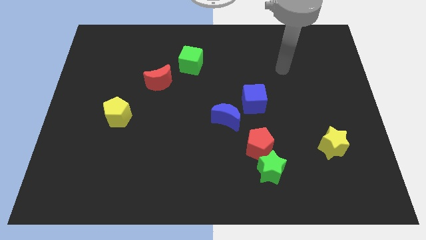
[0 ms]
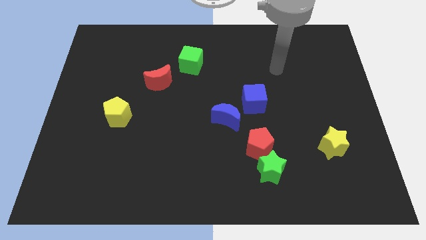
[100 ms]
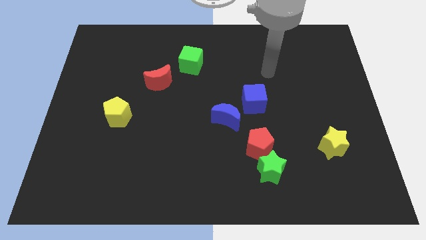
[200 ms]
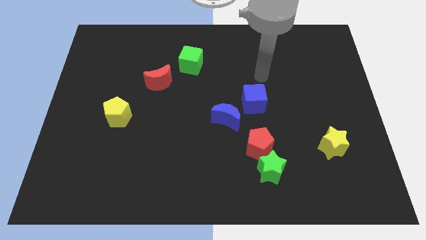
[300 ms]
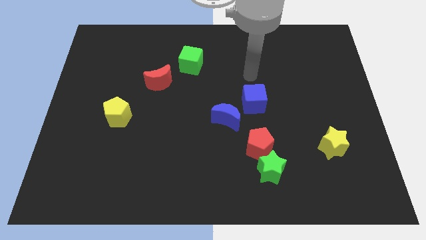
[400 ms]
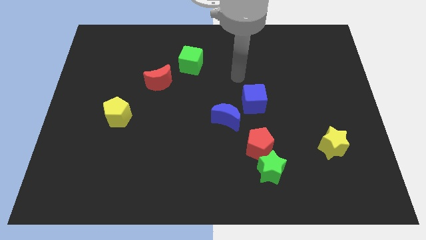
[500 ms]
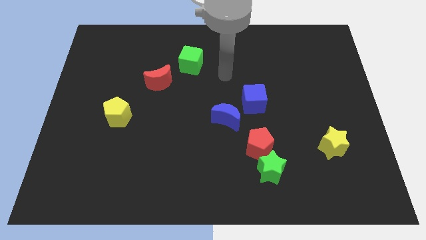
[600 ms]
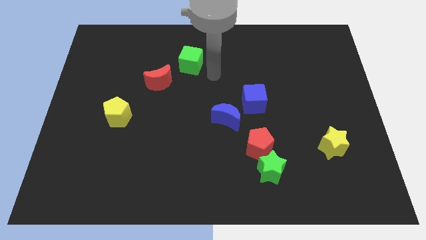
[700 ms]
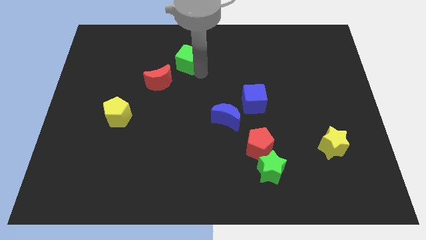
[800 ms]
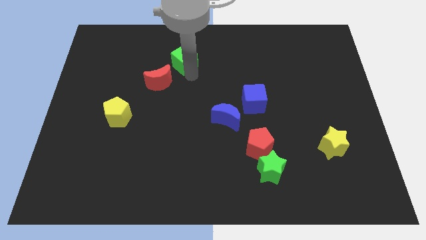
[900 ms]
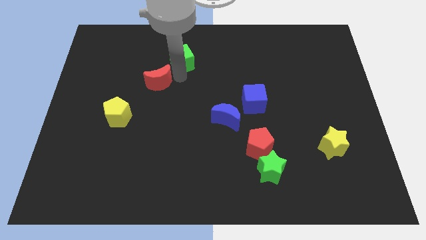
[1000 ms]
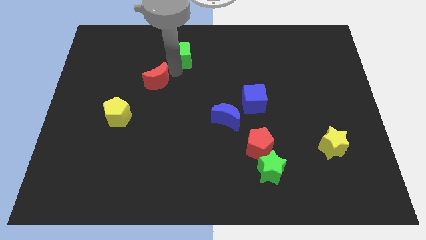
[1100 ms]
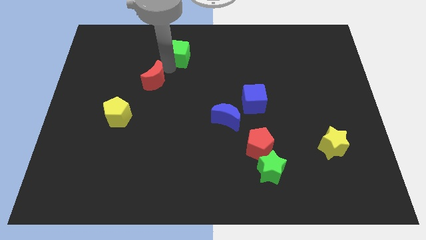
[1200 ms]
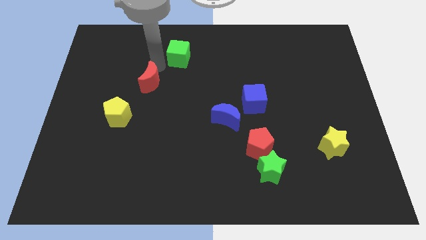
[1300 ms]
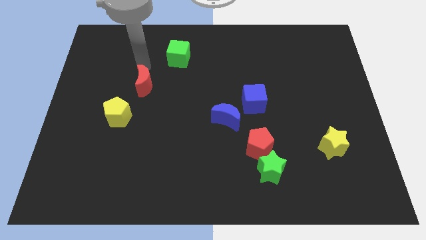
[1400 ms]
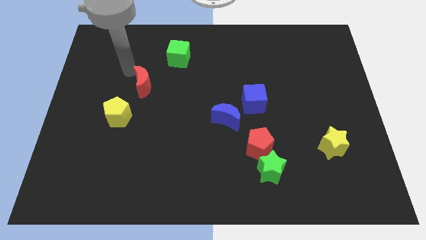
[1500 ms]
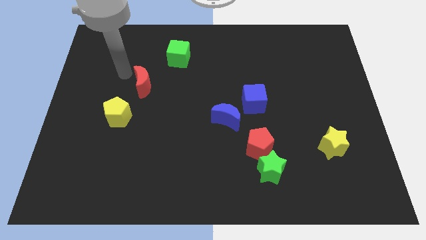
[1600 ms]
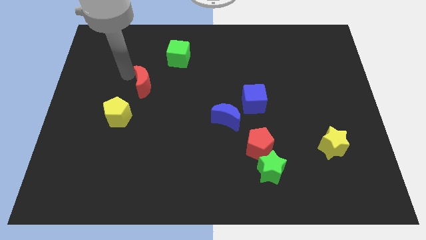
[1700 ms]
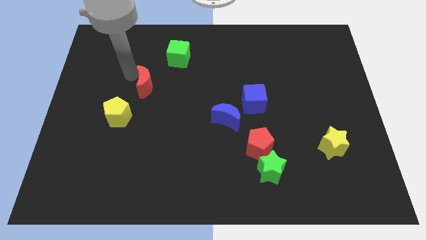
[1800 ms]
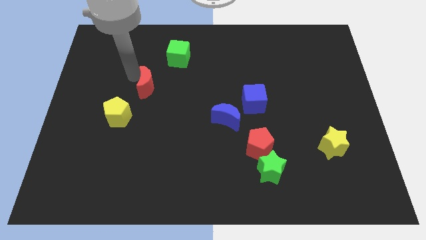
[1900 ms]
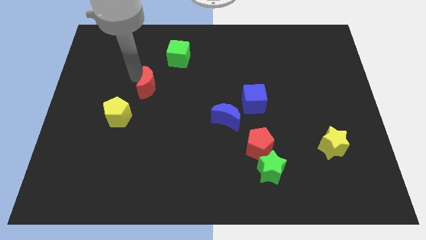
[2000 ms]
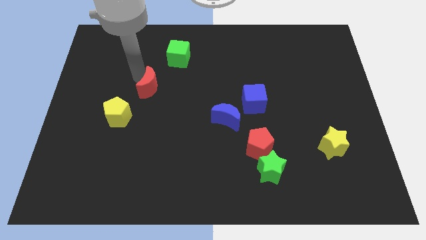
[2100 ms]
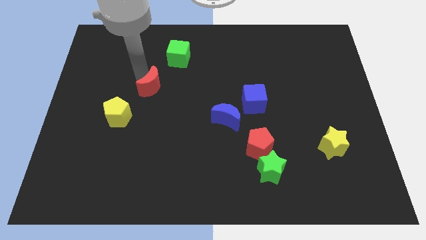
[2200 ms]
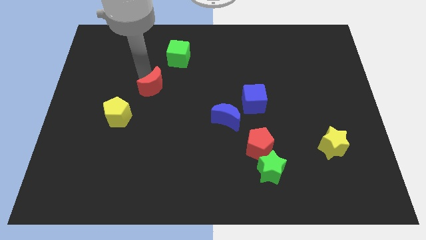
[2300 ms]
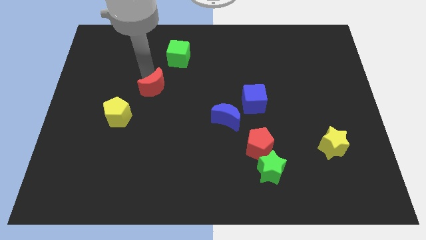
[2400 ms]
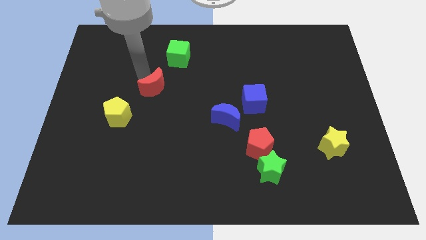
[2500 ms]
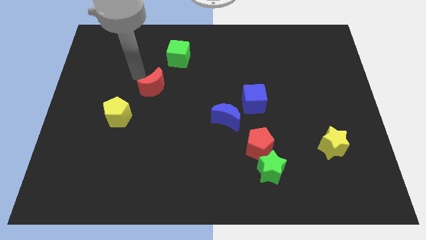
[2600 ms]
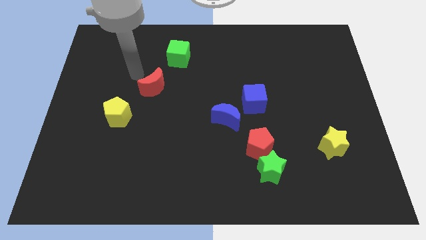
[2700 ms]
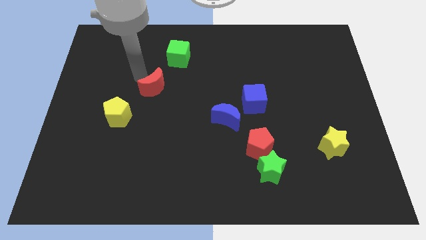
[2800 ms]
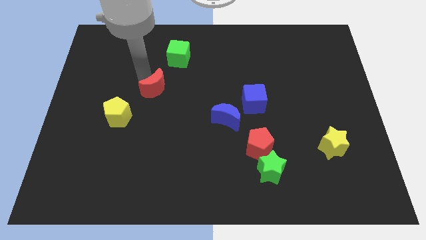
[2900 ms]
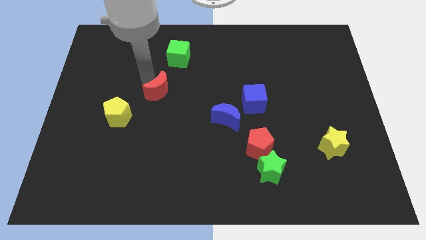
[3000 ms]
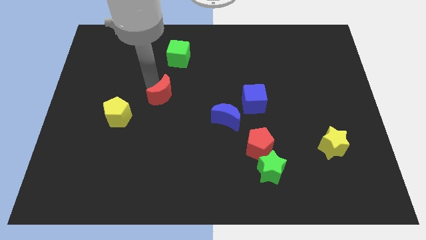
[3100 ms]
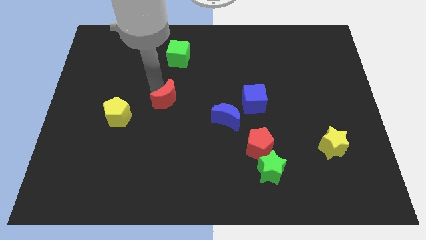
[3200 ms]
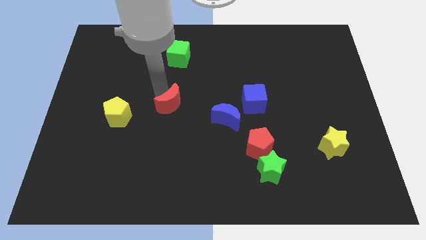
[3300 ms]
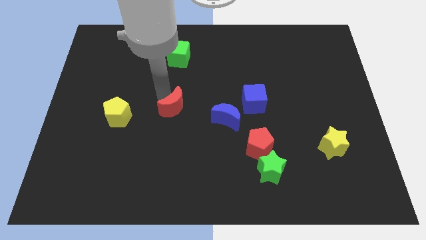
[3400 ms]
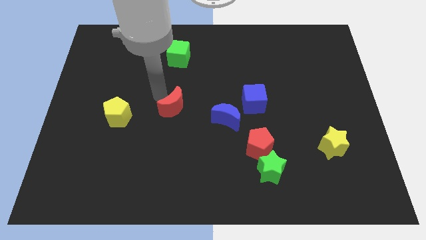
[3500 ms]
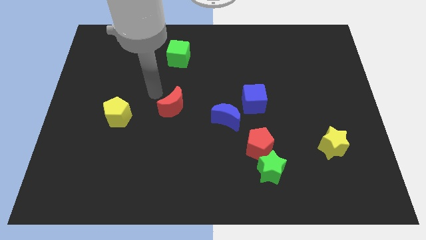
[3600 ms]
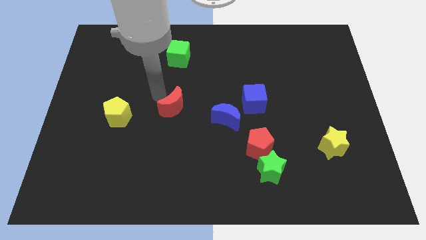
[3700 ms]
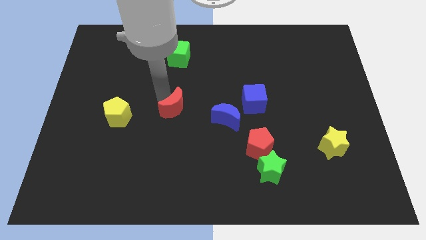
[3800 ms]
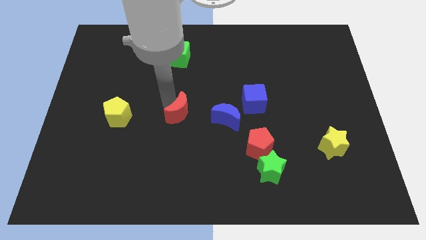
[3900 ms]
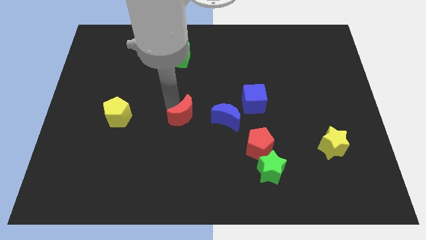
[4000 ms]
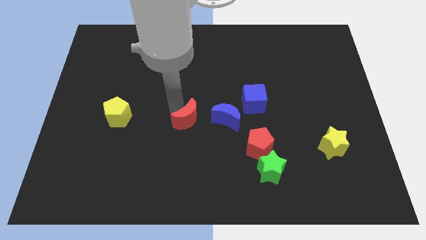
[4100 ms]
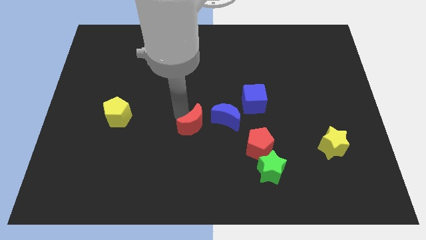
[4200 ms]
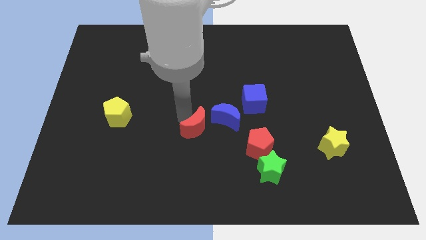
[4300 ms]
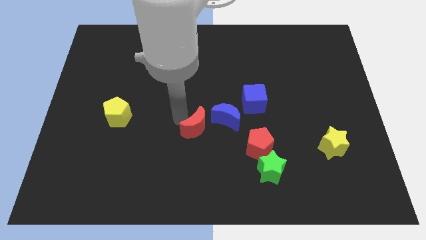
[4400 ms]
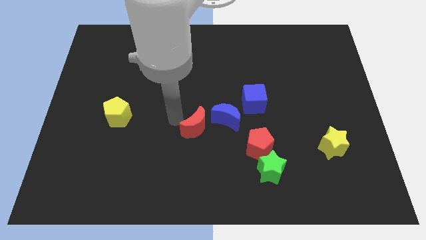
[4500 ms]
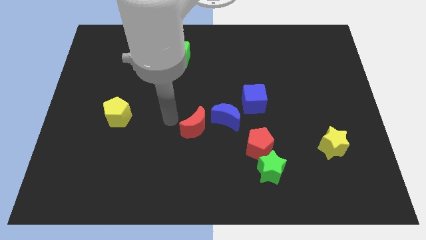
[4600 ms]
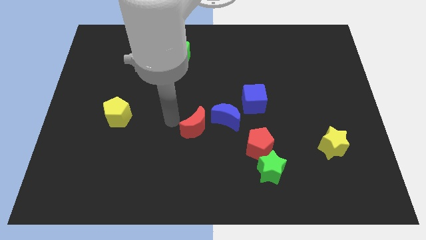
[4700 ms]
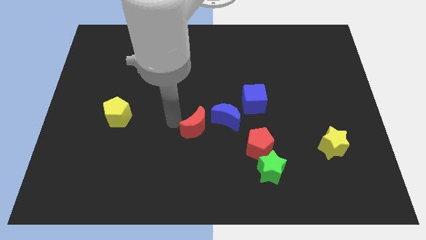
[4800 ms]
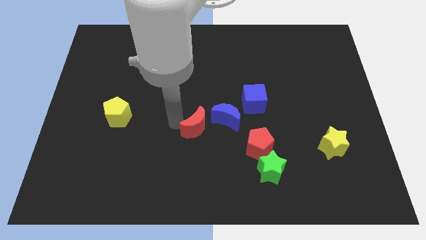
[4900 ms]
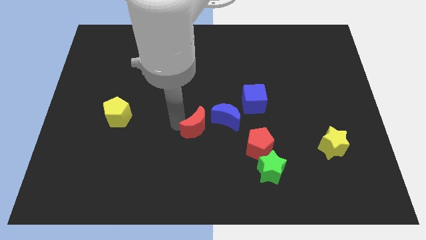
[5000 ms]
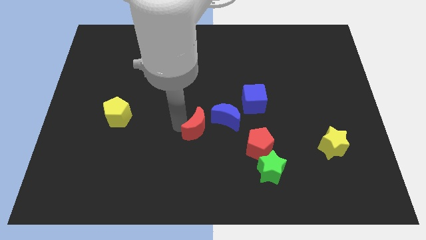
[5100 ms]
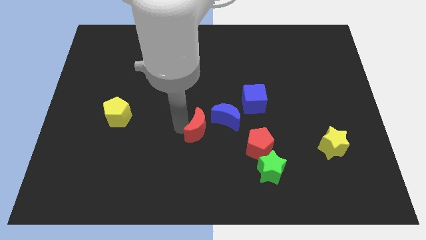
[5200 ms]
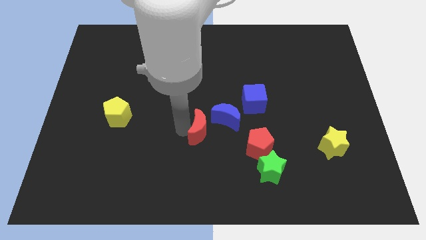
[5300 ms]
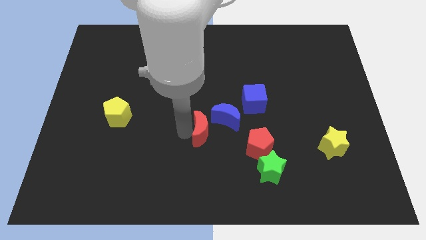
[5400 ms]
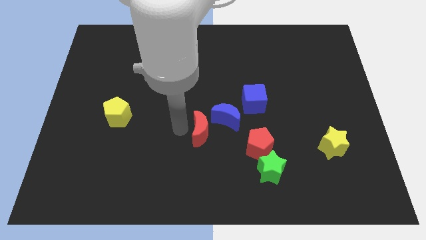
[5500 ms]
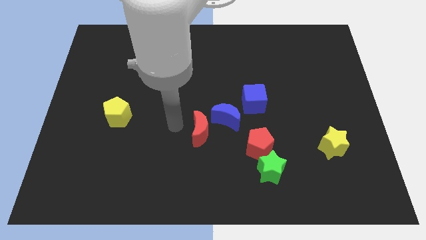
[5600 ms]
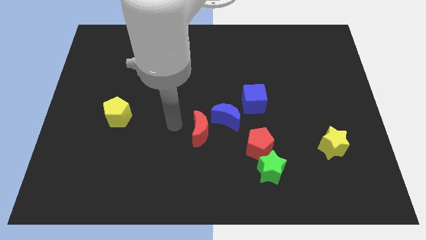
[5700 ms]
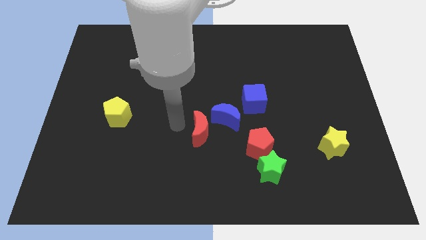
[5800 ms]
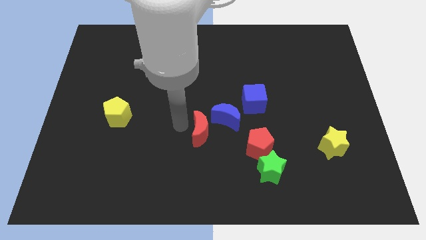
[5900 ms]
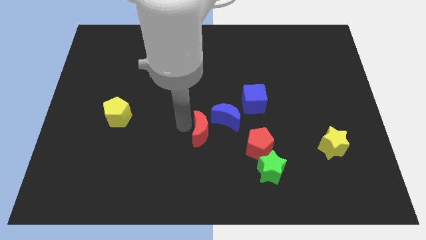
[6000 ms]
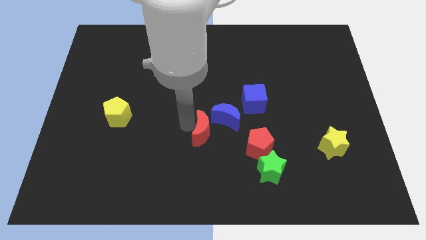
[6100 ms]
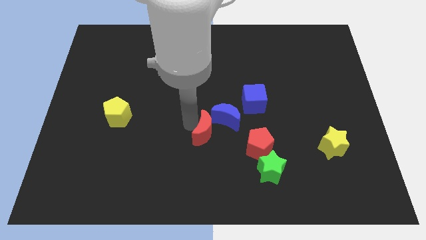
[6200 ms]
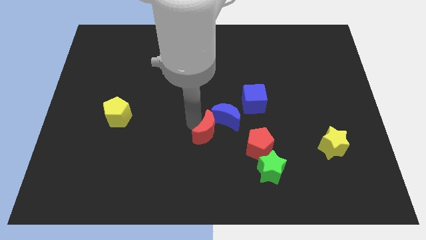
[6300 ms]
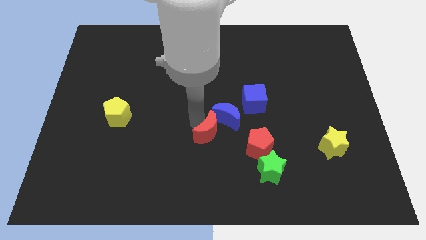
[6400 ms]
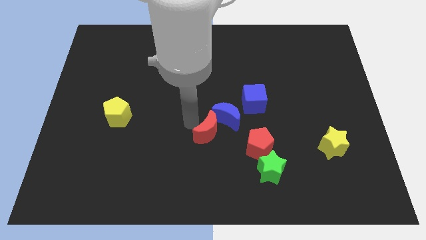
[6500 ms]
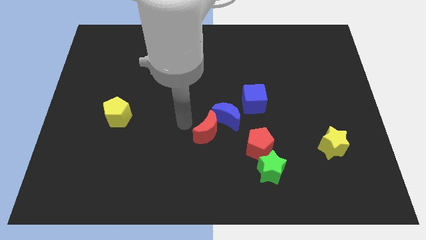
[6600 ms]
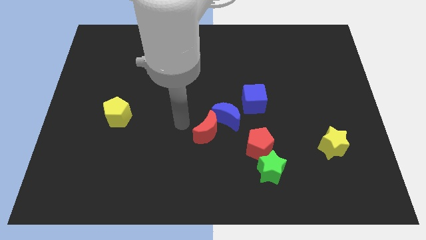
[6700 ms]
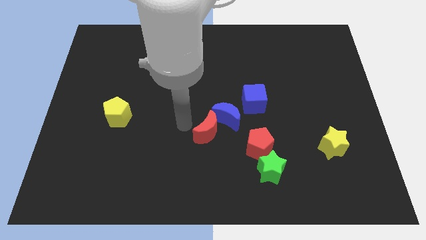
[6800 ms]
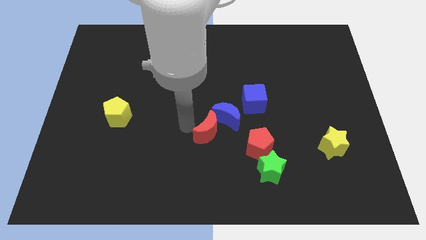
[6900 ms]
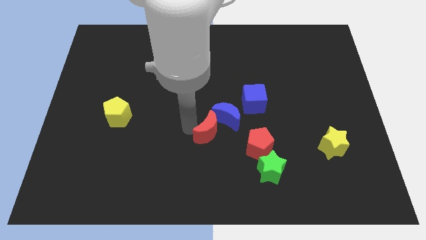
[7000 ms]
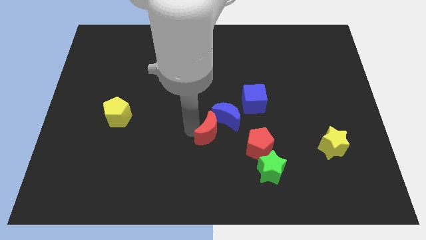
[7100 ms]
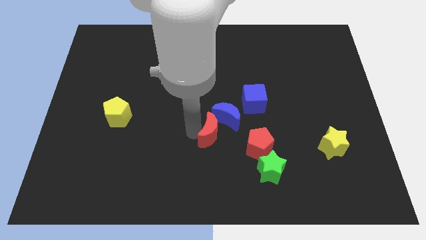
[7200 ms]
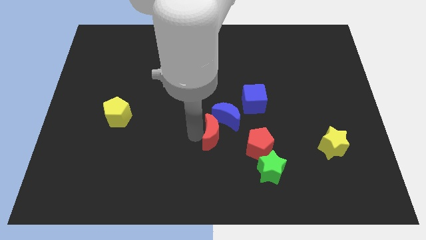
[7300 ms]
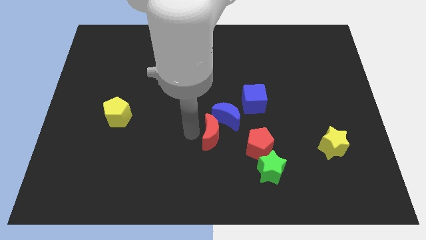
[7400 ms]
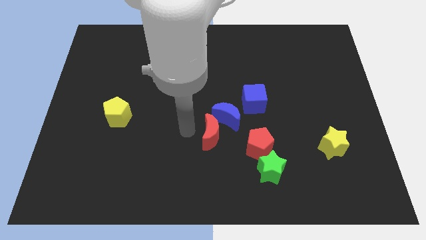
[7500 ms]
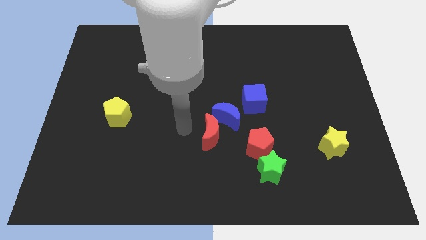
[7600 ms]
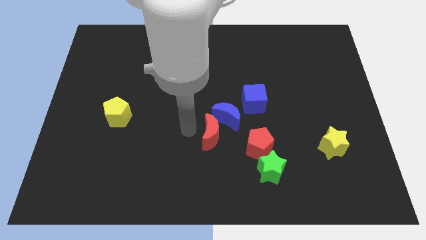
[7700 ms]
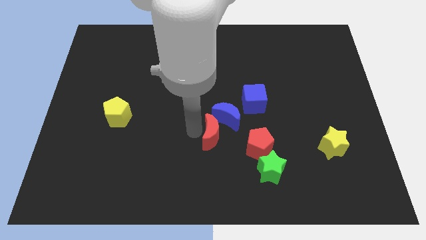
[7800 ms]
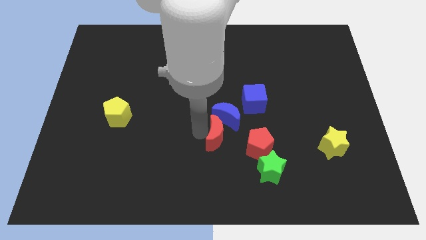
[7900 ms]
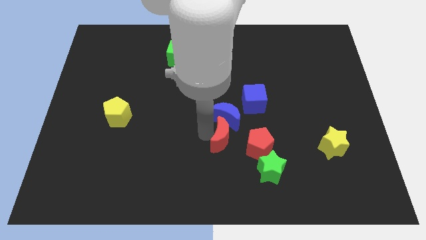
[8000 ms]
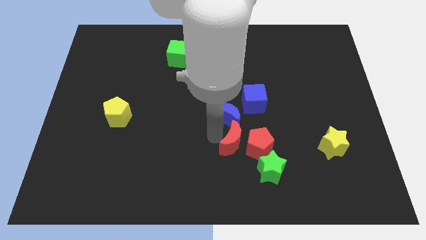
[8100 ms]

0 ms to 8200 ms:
put the red moon towards the red pentagon
